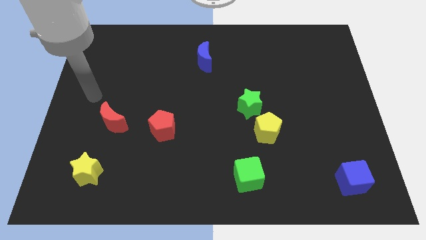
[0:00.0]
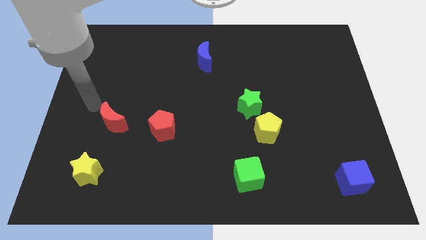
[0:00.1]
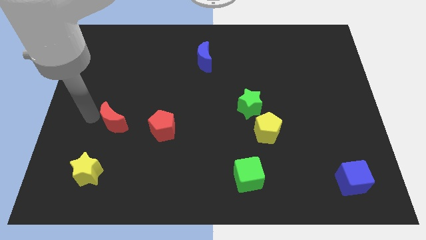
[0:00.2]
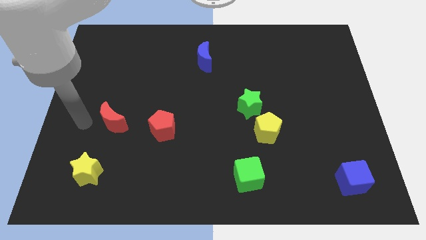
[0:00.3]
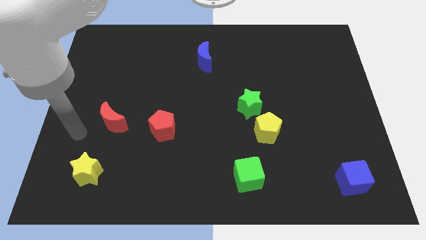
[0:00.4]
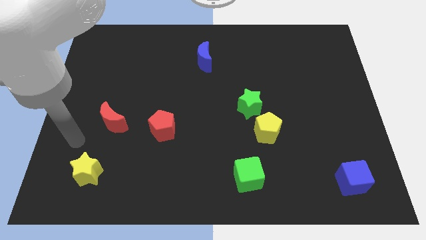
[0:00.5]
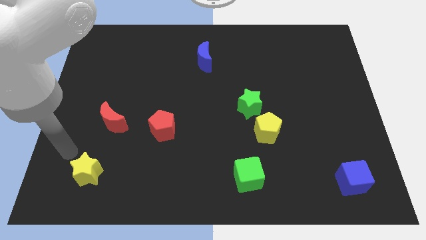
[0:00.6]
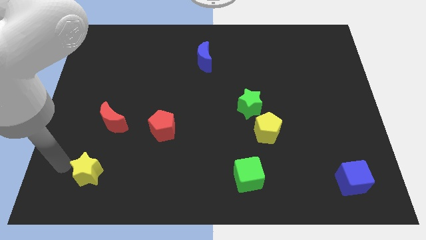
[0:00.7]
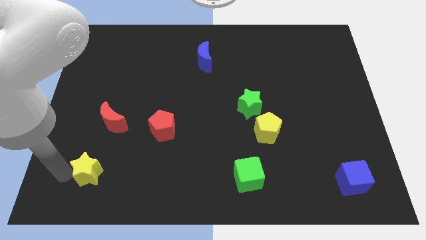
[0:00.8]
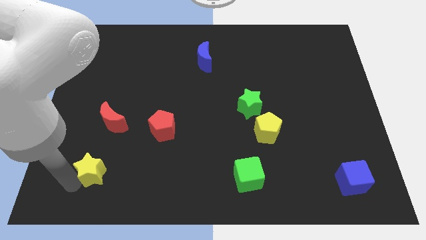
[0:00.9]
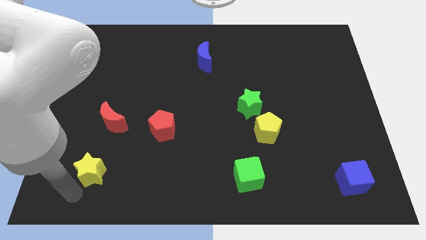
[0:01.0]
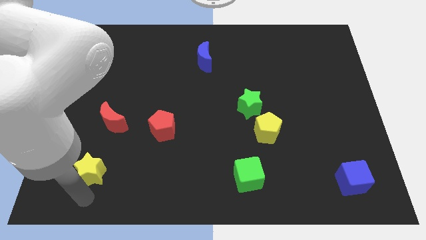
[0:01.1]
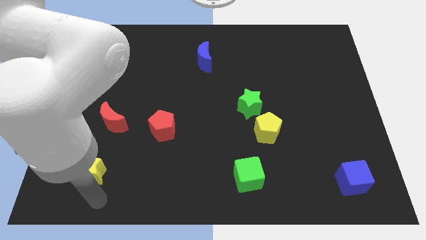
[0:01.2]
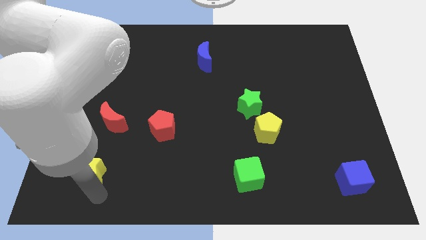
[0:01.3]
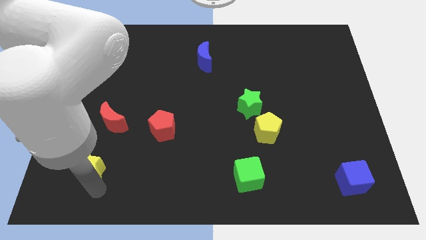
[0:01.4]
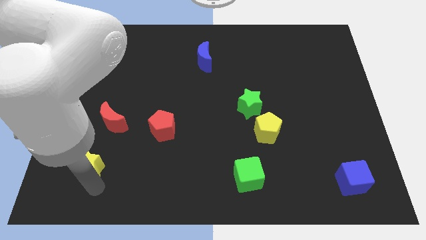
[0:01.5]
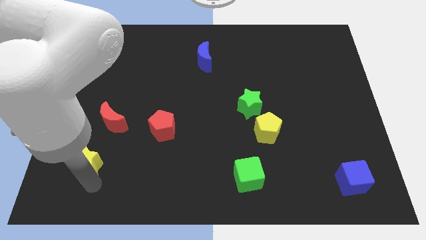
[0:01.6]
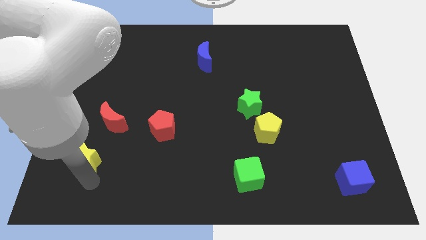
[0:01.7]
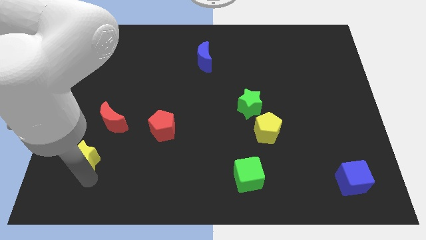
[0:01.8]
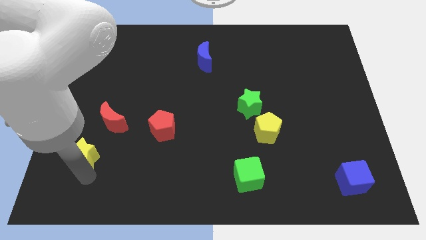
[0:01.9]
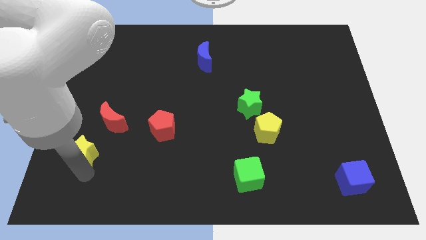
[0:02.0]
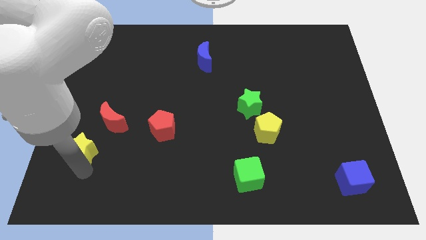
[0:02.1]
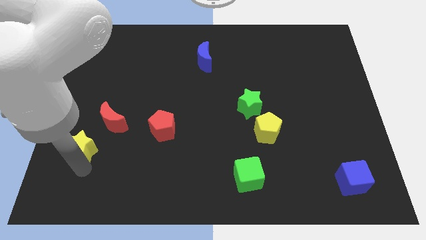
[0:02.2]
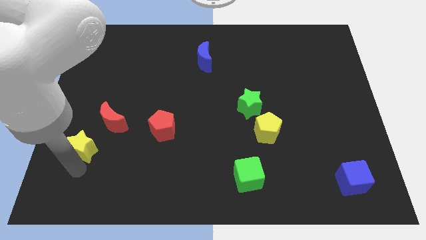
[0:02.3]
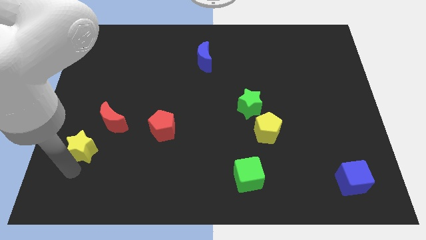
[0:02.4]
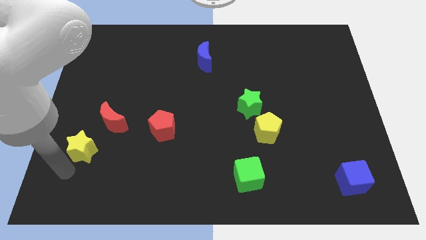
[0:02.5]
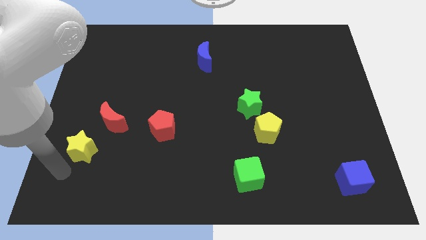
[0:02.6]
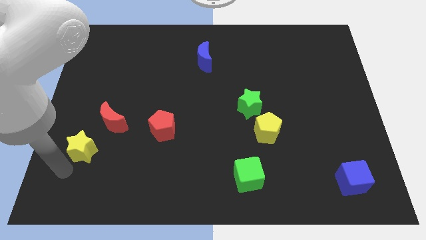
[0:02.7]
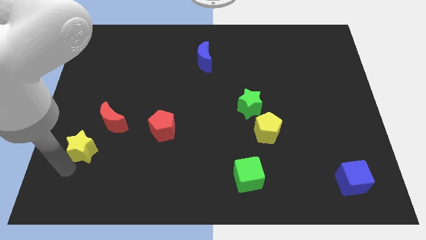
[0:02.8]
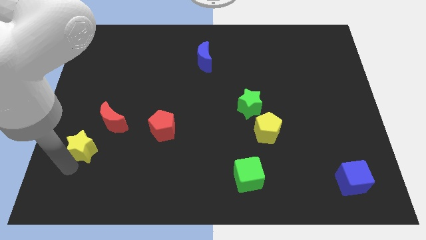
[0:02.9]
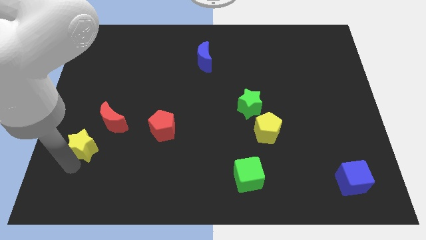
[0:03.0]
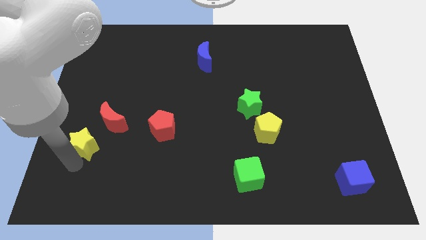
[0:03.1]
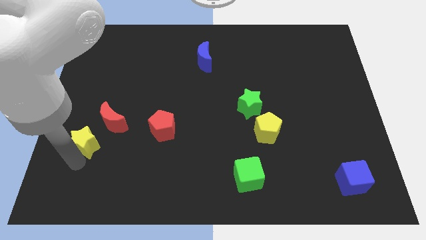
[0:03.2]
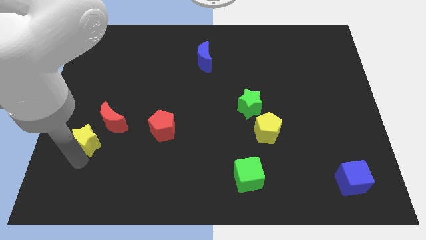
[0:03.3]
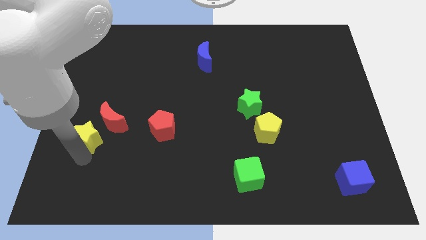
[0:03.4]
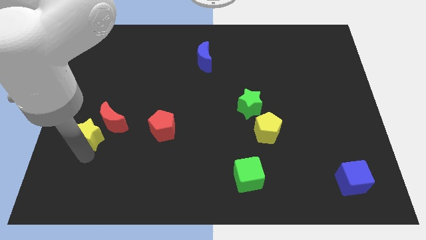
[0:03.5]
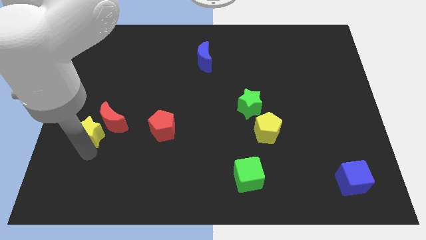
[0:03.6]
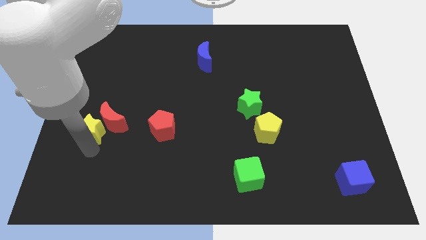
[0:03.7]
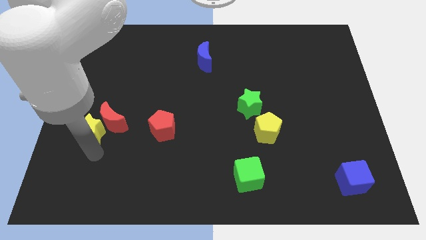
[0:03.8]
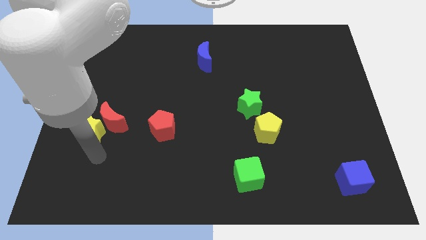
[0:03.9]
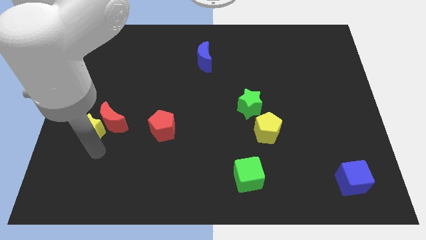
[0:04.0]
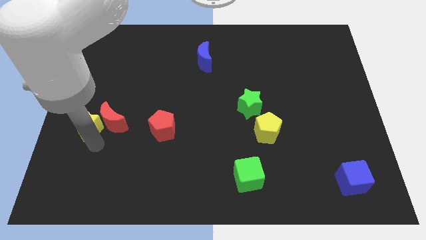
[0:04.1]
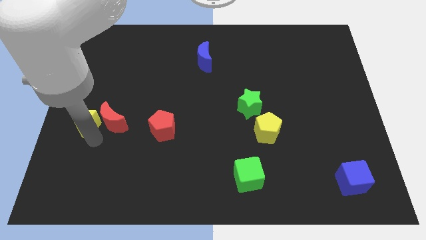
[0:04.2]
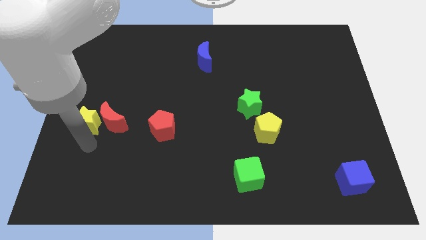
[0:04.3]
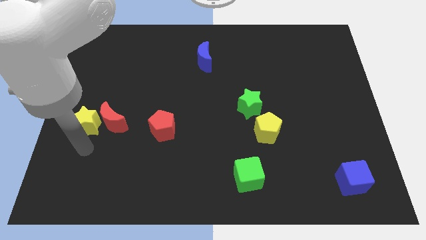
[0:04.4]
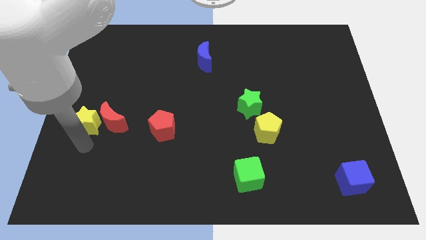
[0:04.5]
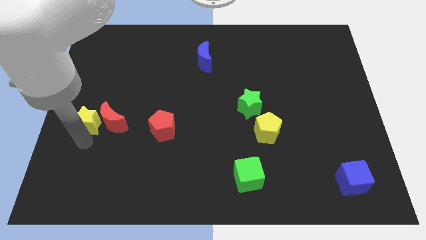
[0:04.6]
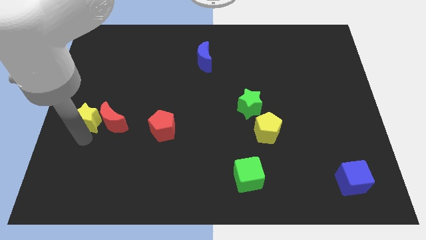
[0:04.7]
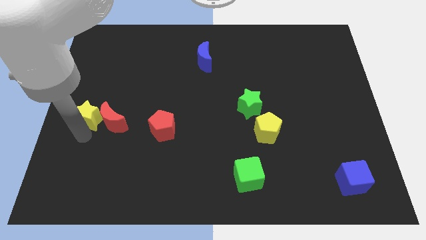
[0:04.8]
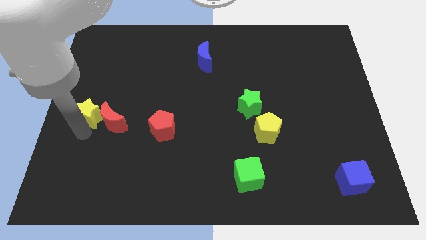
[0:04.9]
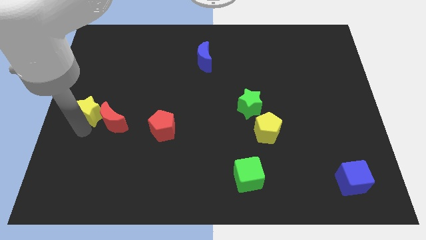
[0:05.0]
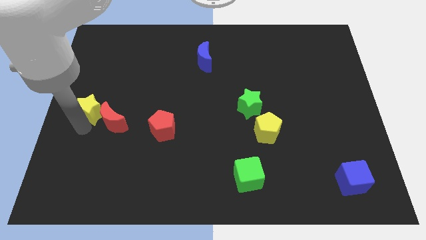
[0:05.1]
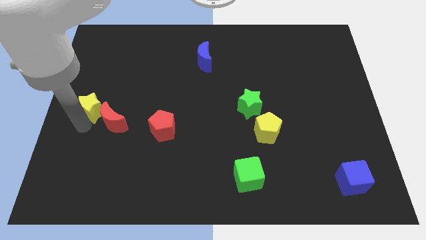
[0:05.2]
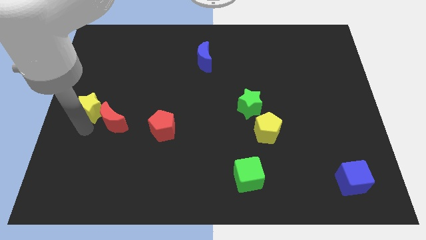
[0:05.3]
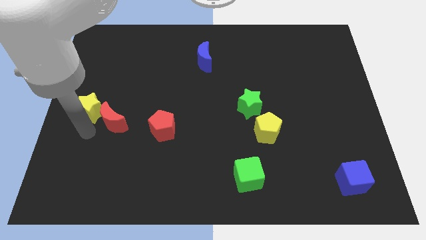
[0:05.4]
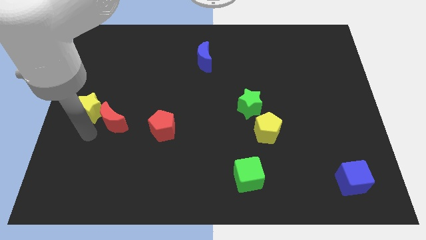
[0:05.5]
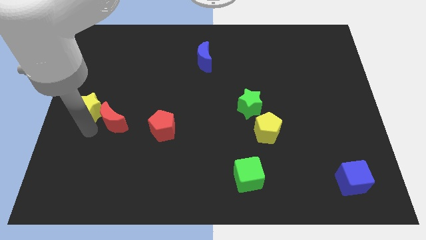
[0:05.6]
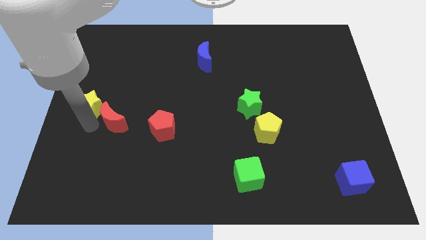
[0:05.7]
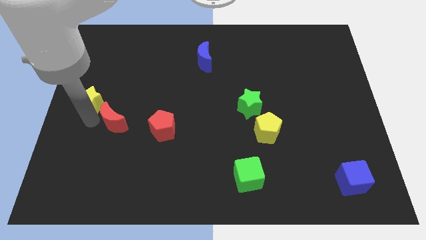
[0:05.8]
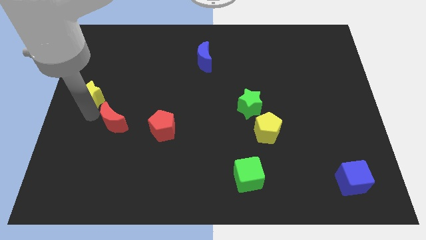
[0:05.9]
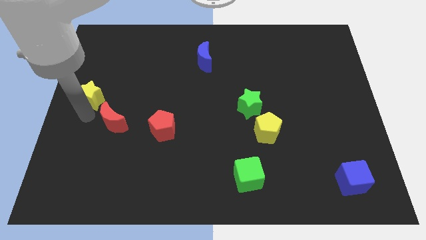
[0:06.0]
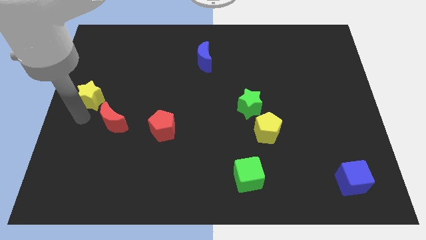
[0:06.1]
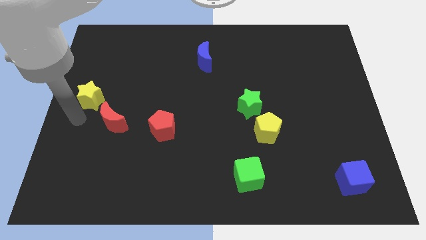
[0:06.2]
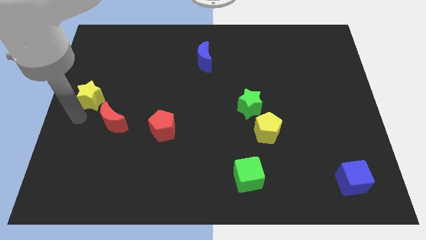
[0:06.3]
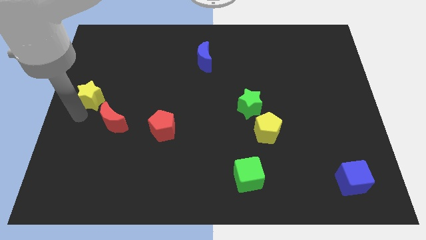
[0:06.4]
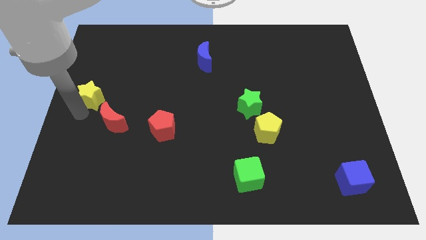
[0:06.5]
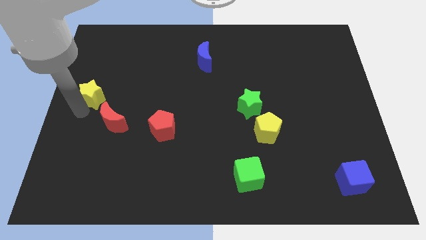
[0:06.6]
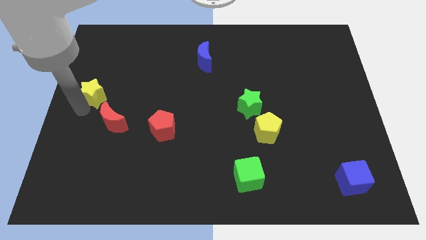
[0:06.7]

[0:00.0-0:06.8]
slide the yellow star upwards

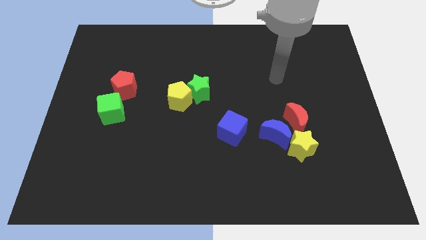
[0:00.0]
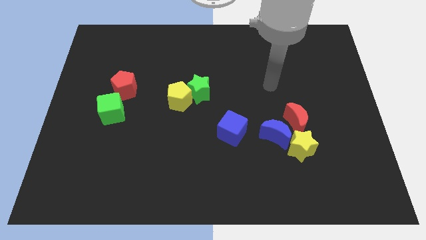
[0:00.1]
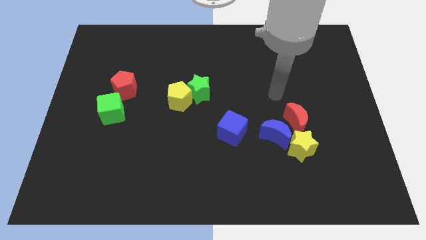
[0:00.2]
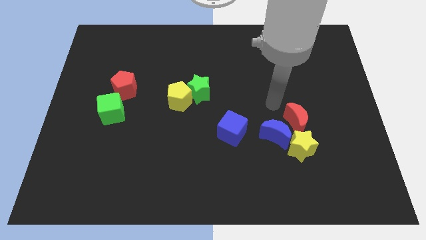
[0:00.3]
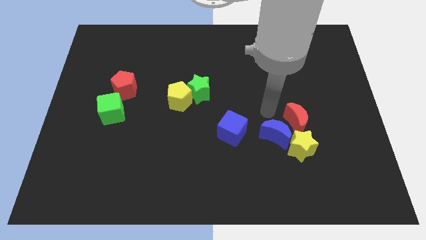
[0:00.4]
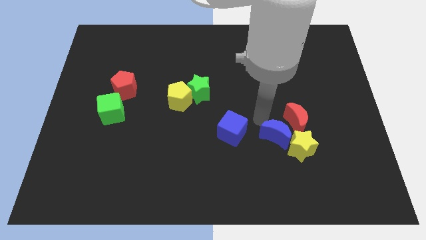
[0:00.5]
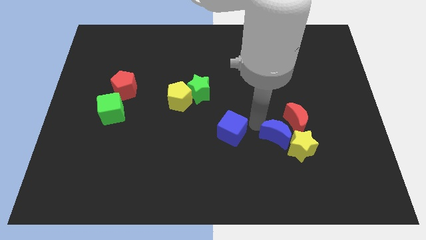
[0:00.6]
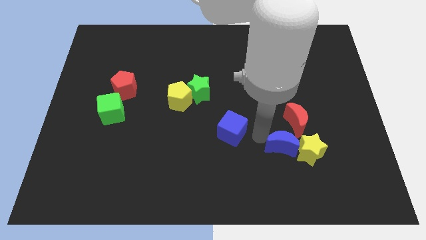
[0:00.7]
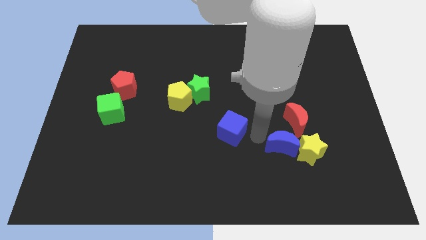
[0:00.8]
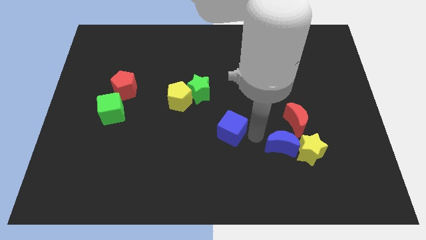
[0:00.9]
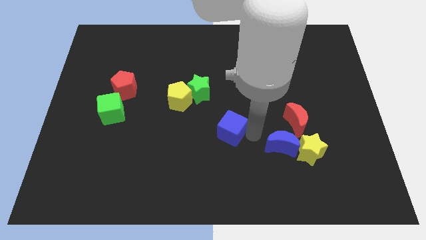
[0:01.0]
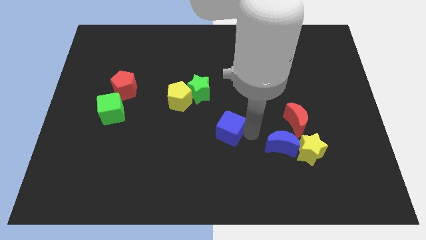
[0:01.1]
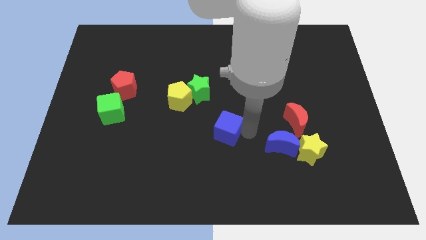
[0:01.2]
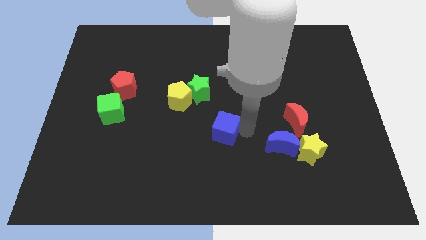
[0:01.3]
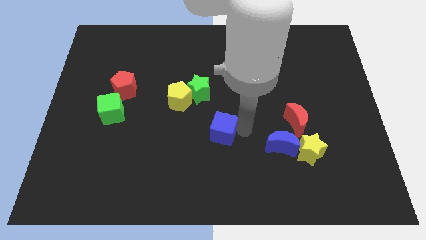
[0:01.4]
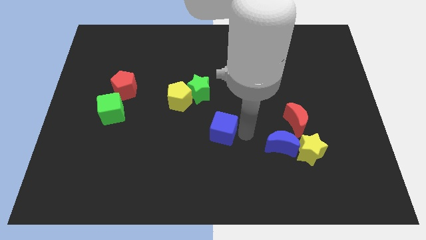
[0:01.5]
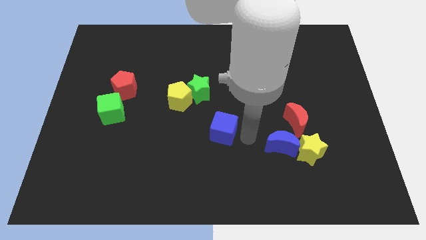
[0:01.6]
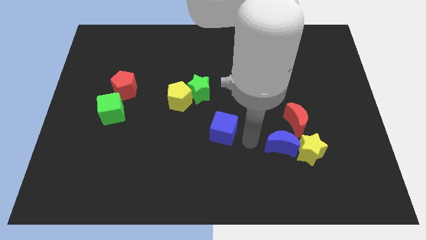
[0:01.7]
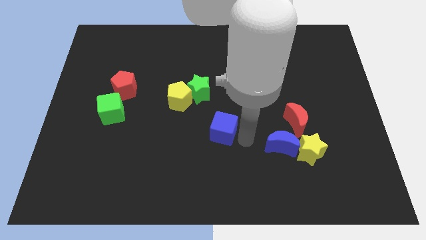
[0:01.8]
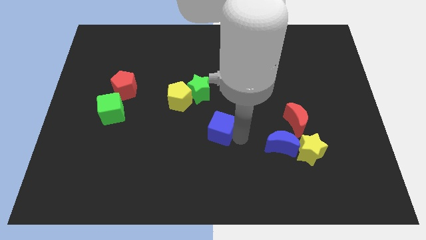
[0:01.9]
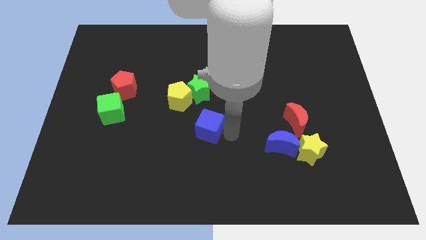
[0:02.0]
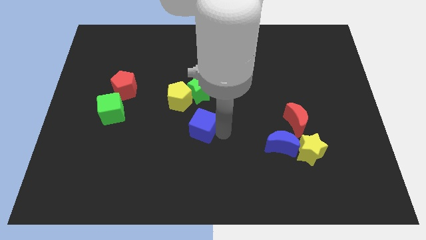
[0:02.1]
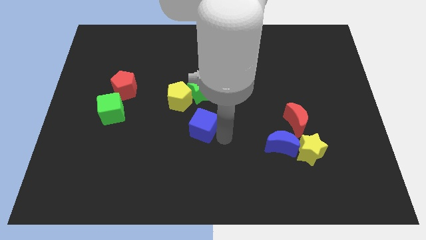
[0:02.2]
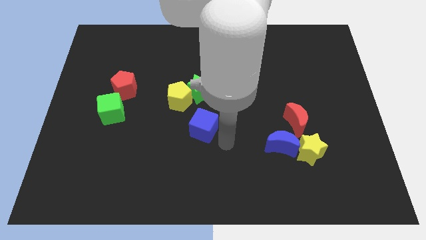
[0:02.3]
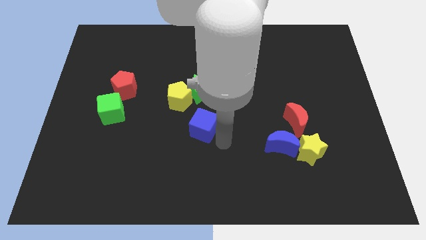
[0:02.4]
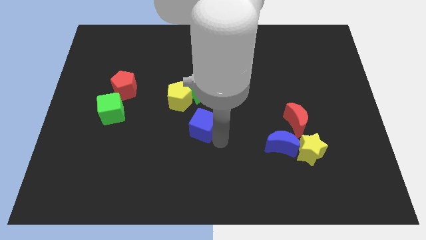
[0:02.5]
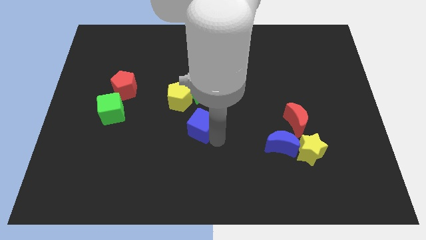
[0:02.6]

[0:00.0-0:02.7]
slightly push the blue cube left
